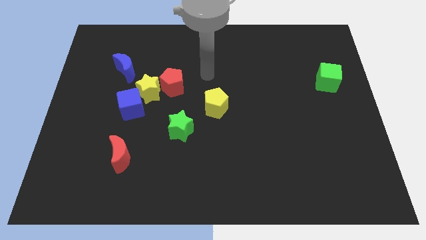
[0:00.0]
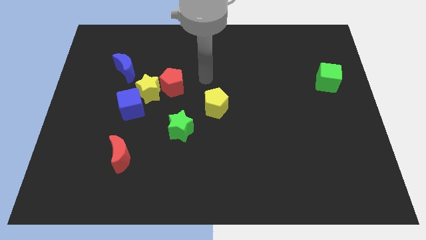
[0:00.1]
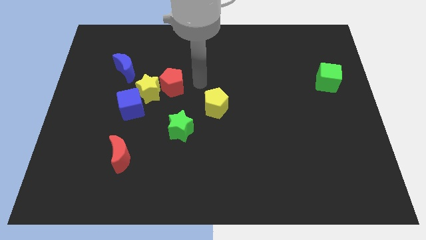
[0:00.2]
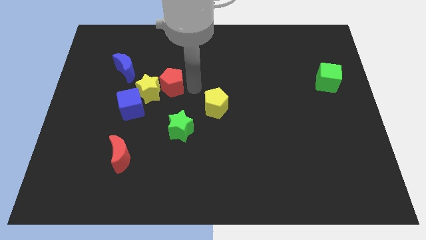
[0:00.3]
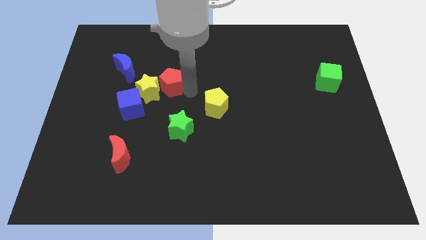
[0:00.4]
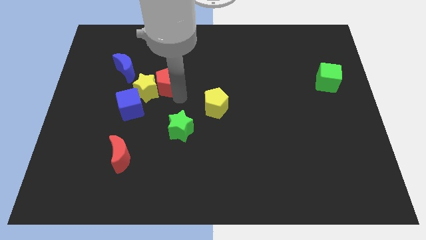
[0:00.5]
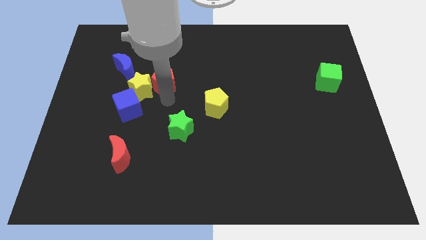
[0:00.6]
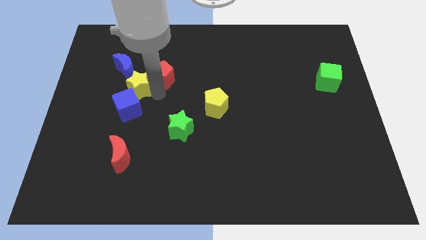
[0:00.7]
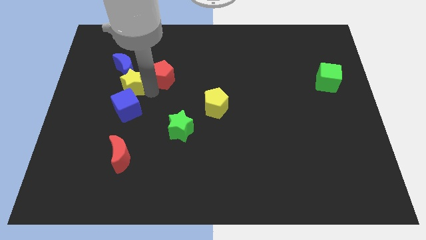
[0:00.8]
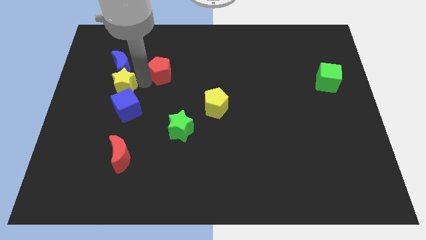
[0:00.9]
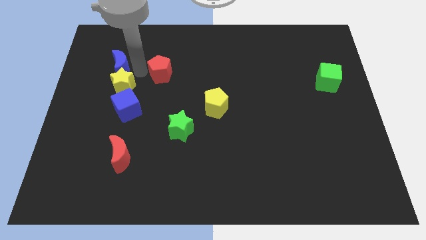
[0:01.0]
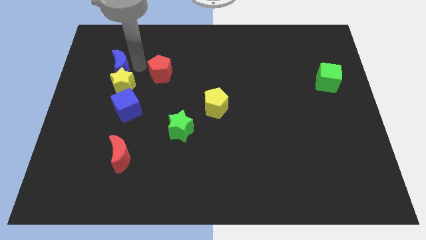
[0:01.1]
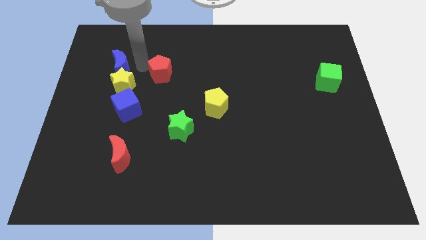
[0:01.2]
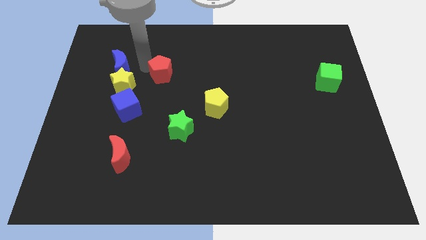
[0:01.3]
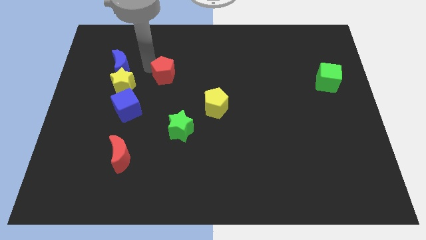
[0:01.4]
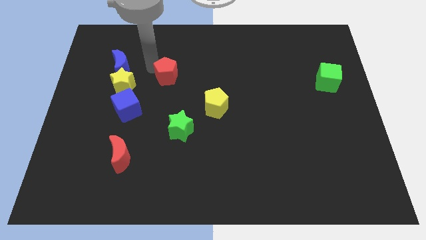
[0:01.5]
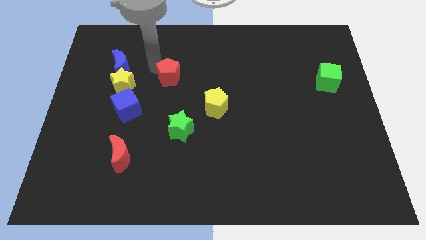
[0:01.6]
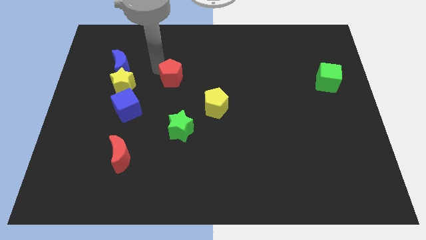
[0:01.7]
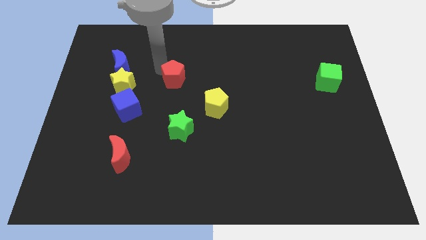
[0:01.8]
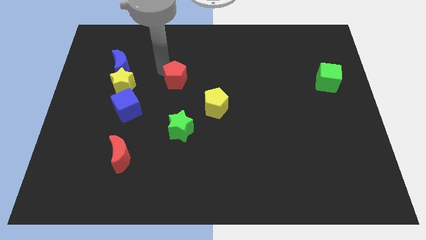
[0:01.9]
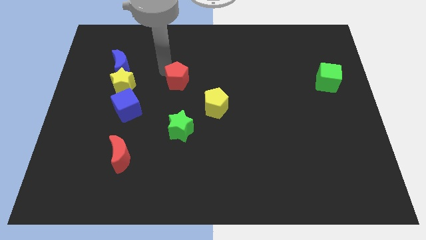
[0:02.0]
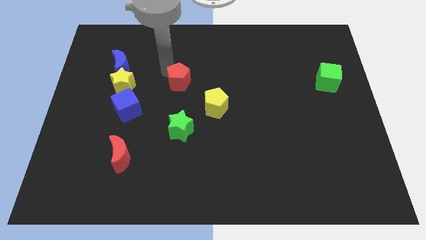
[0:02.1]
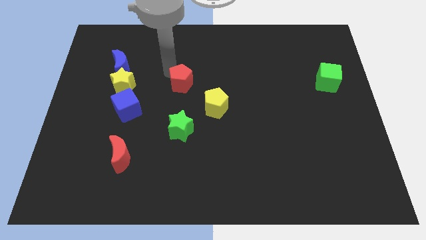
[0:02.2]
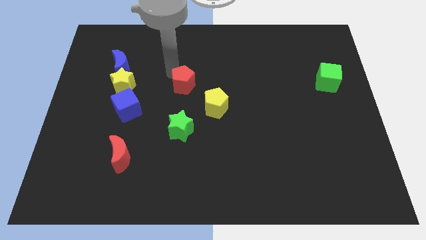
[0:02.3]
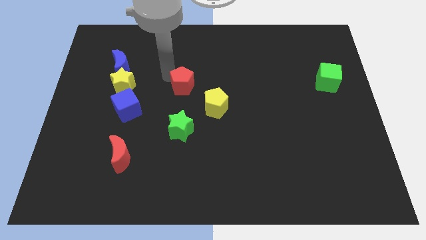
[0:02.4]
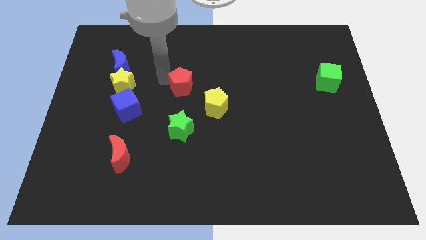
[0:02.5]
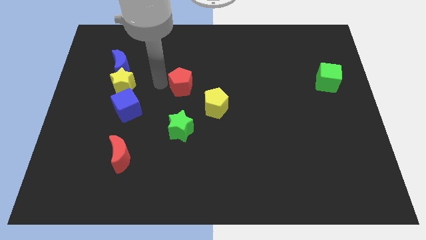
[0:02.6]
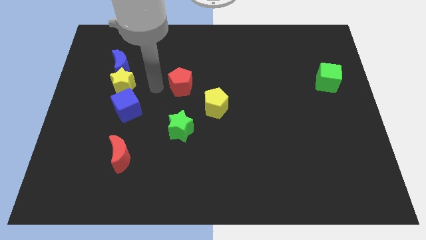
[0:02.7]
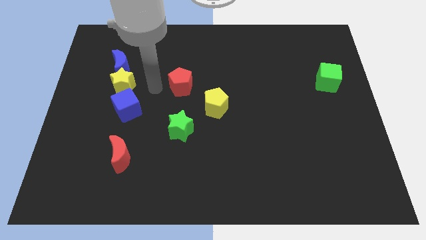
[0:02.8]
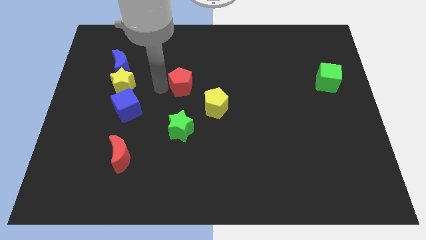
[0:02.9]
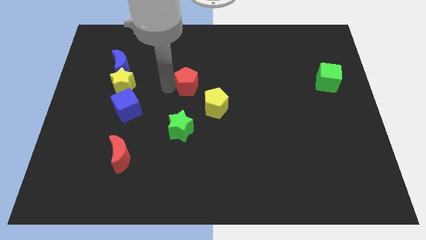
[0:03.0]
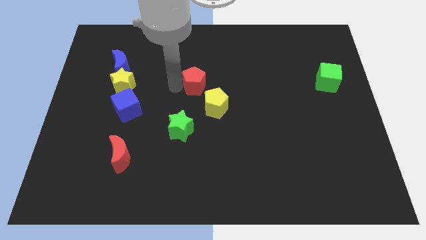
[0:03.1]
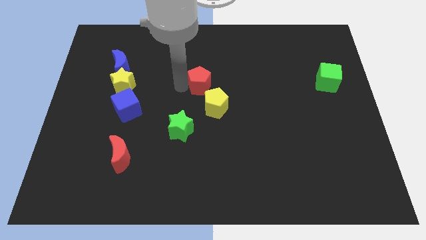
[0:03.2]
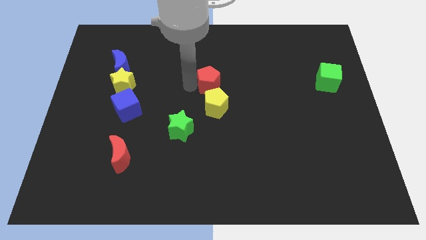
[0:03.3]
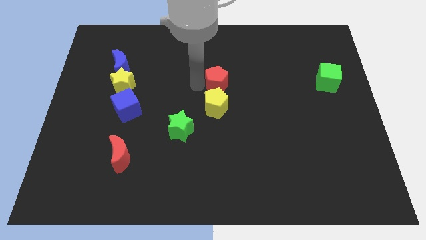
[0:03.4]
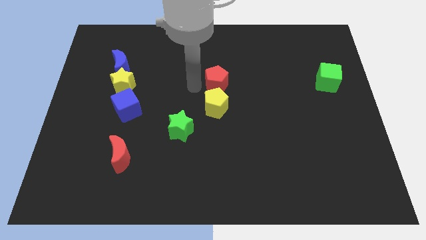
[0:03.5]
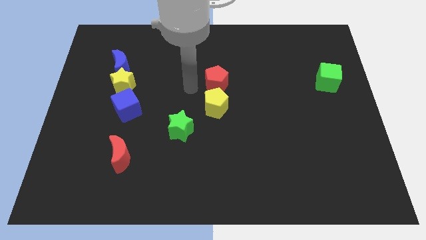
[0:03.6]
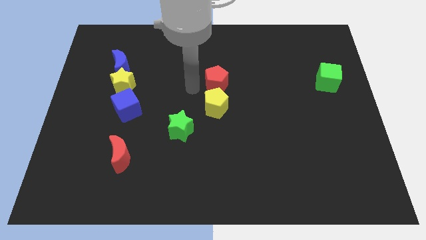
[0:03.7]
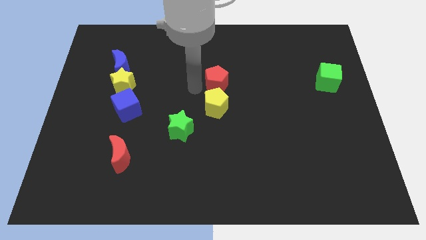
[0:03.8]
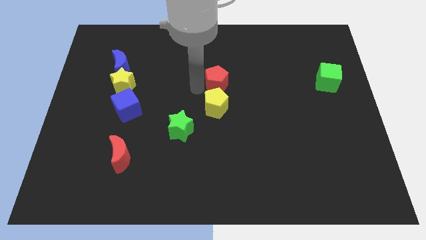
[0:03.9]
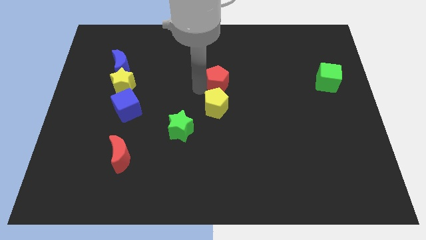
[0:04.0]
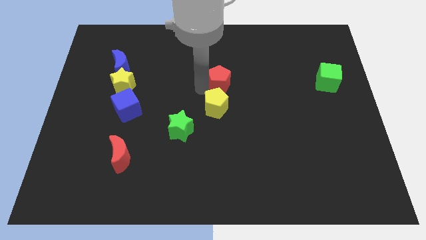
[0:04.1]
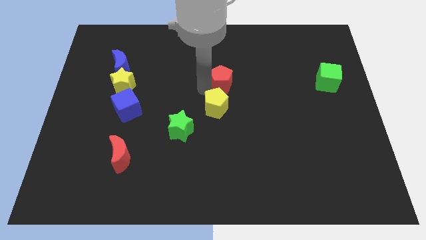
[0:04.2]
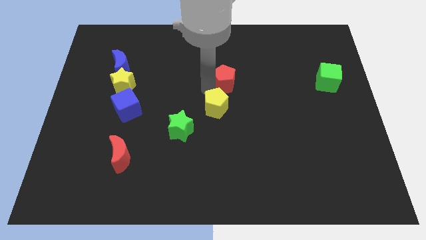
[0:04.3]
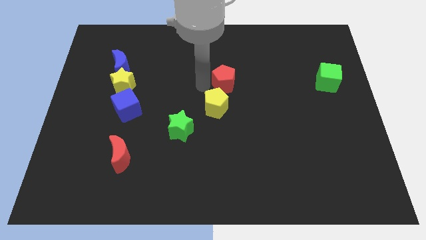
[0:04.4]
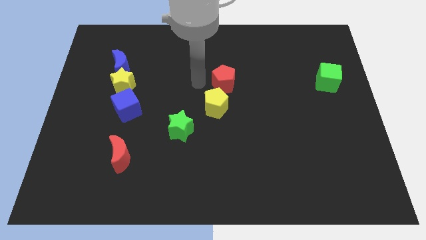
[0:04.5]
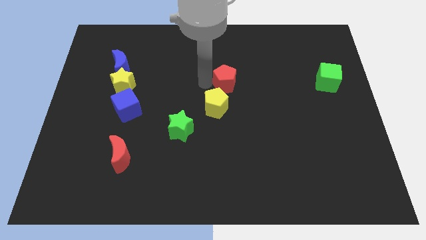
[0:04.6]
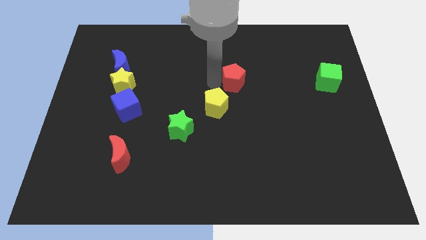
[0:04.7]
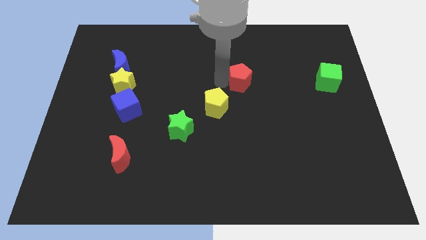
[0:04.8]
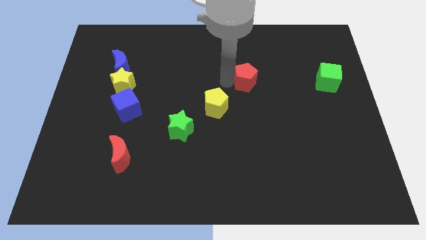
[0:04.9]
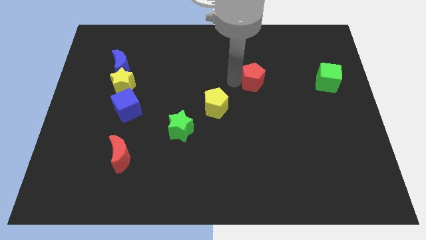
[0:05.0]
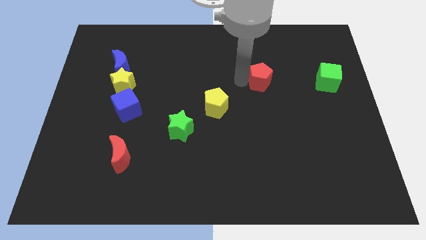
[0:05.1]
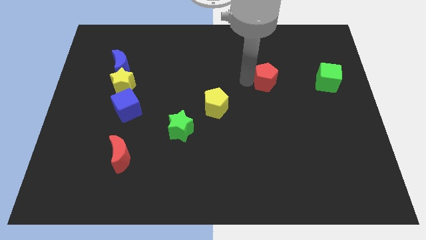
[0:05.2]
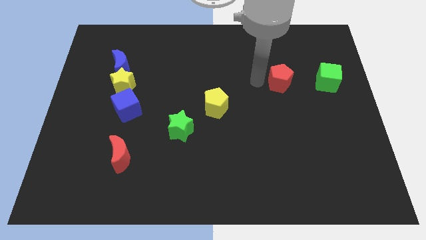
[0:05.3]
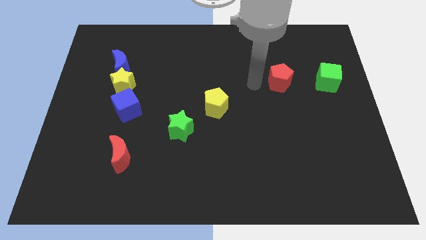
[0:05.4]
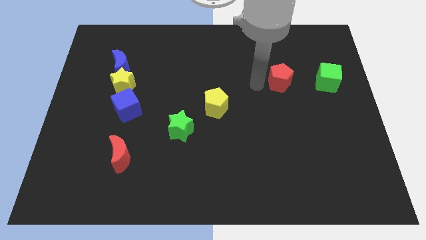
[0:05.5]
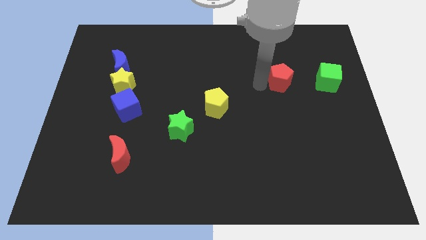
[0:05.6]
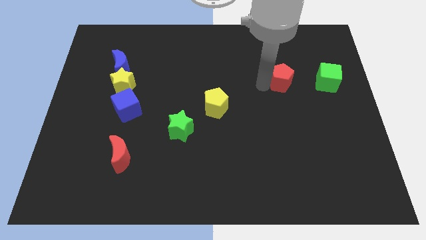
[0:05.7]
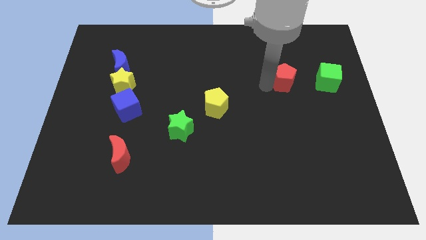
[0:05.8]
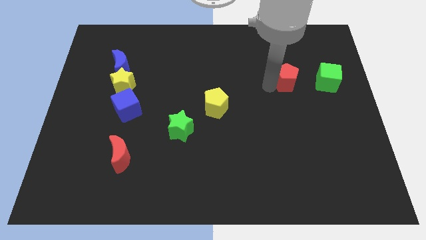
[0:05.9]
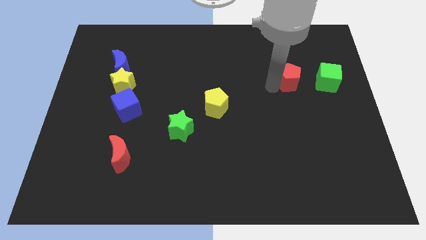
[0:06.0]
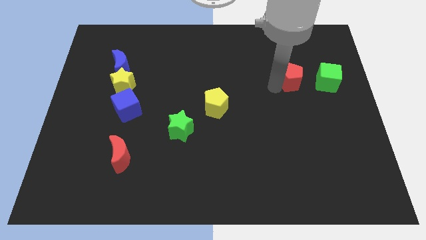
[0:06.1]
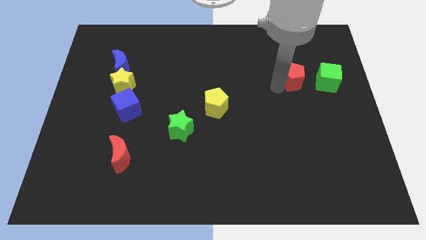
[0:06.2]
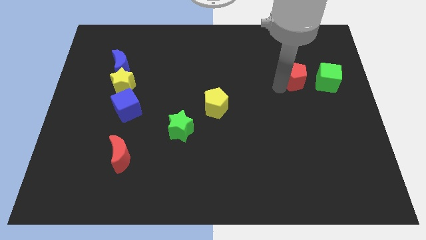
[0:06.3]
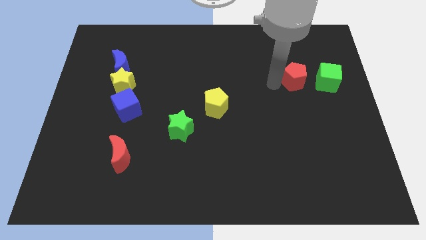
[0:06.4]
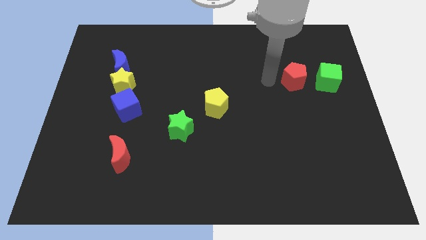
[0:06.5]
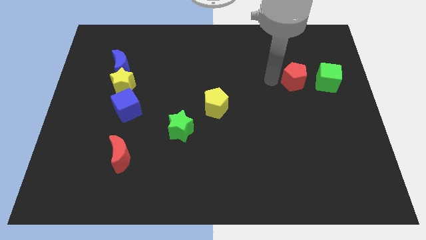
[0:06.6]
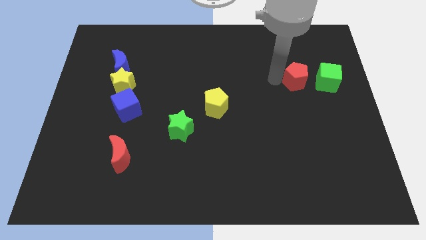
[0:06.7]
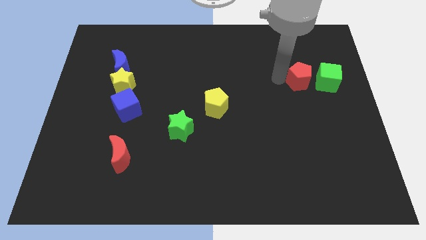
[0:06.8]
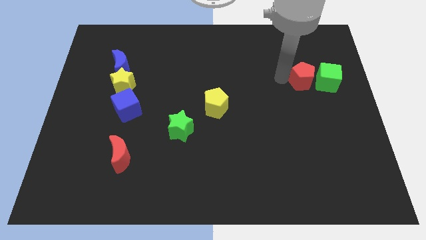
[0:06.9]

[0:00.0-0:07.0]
push the red pentagon to the green cube

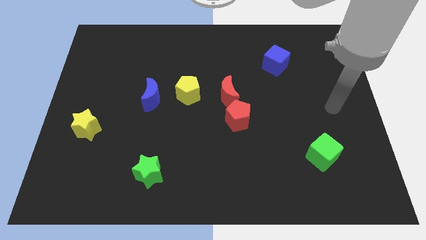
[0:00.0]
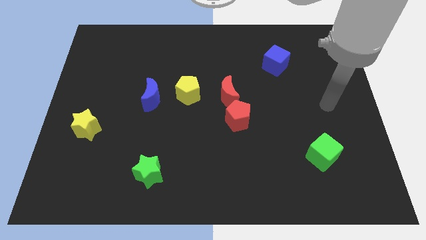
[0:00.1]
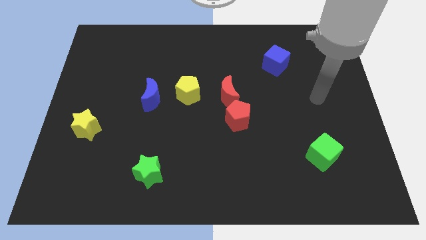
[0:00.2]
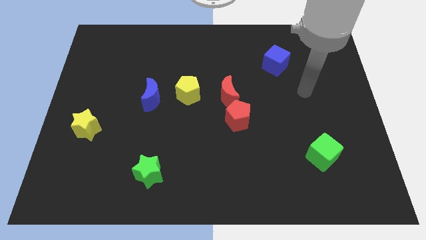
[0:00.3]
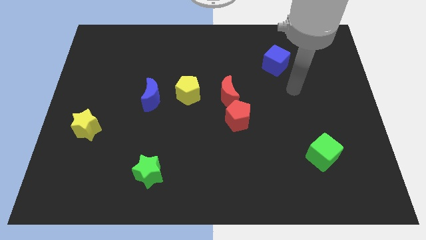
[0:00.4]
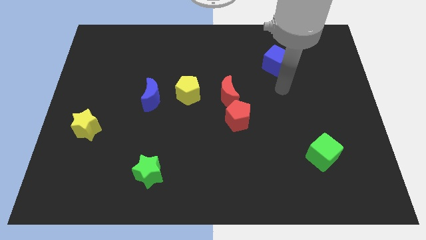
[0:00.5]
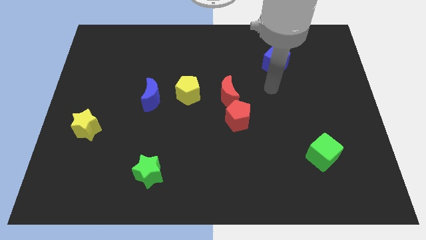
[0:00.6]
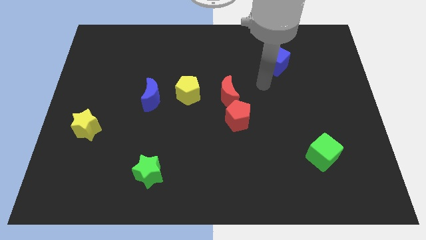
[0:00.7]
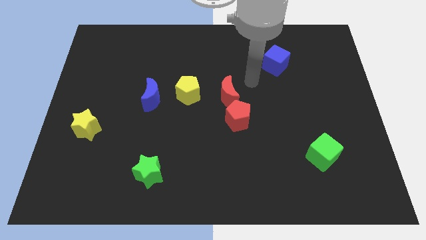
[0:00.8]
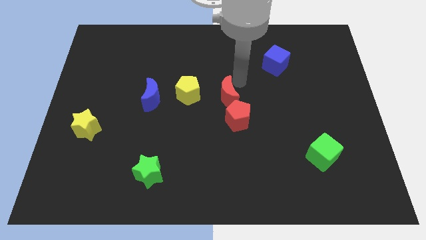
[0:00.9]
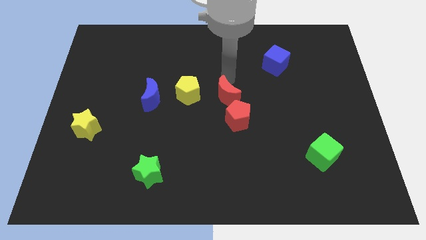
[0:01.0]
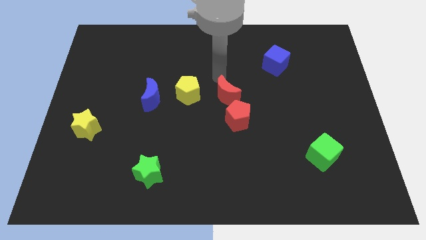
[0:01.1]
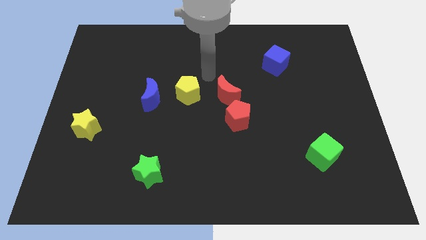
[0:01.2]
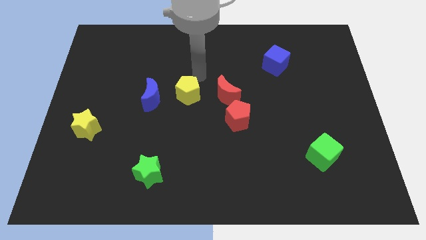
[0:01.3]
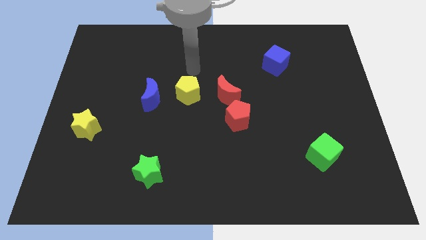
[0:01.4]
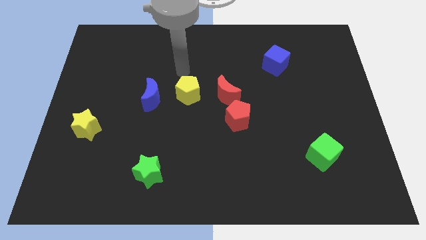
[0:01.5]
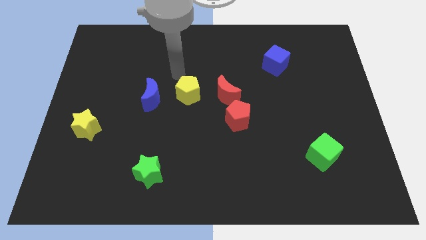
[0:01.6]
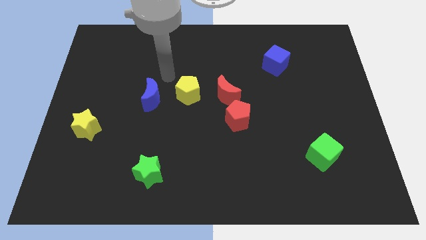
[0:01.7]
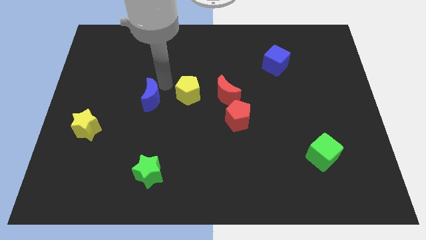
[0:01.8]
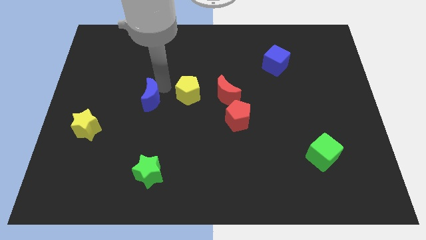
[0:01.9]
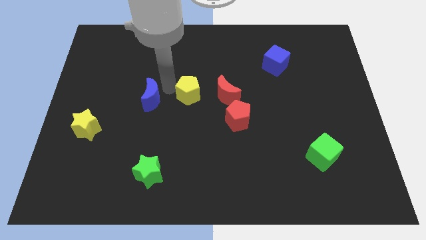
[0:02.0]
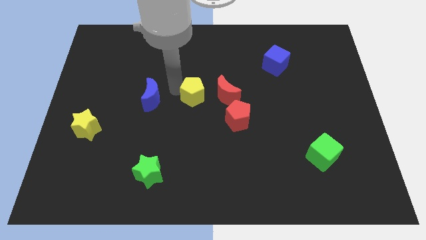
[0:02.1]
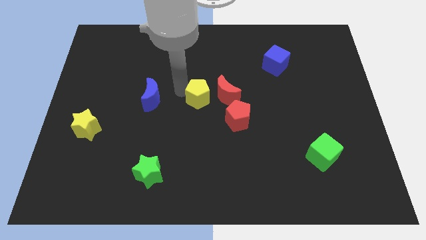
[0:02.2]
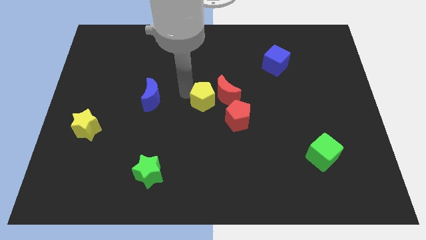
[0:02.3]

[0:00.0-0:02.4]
slide the yellow pentagon to the red moon
